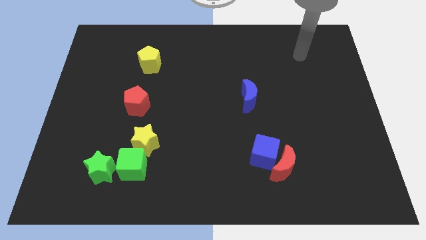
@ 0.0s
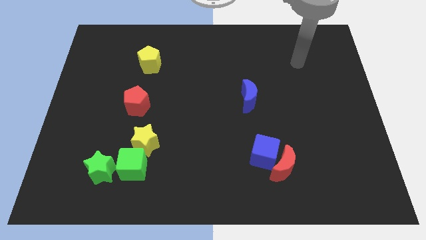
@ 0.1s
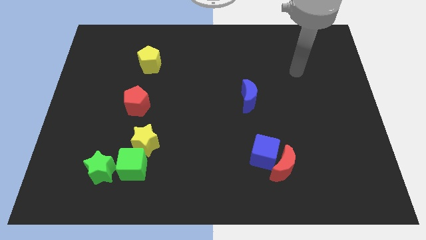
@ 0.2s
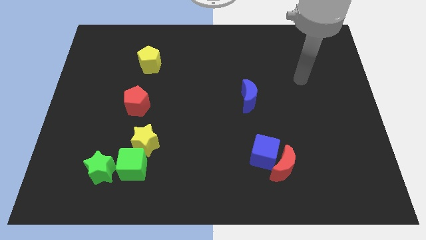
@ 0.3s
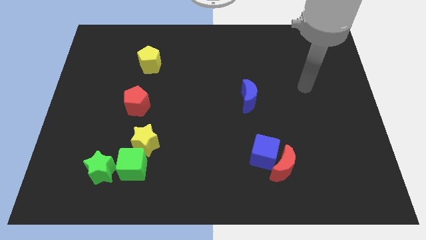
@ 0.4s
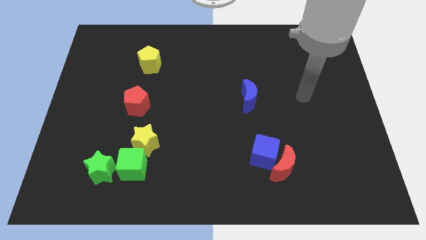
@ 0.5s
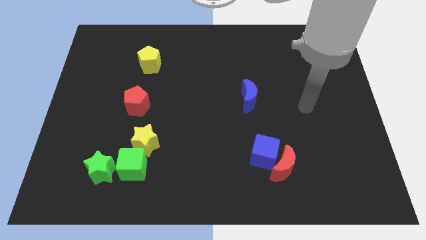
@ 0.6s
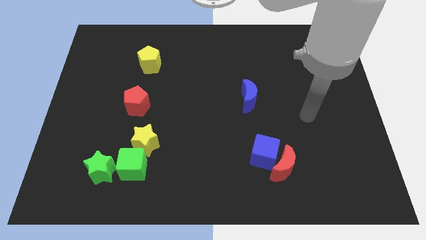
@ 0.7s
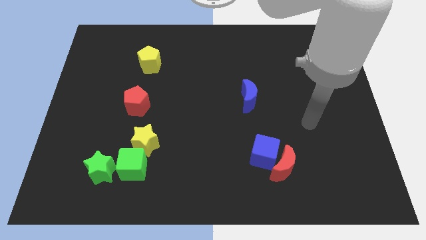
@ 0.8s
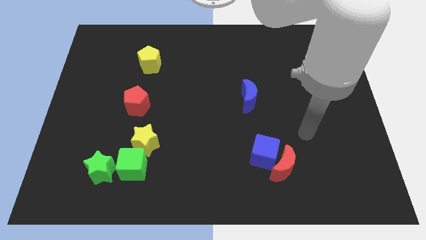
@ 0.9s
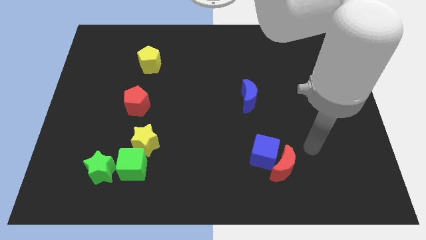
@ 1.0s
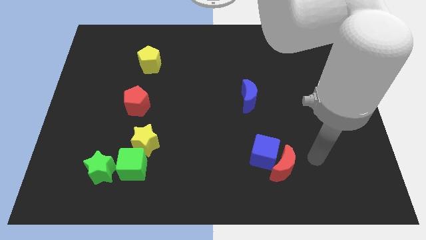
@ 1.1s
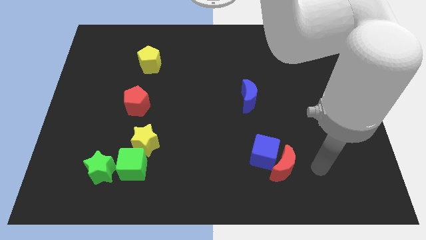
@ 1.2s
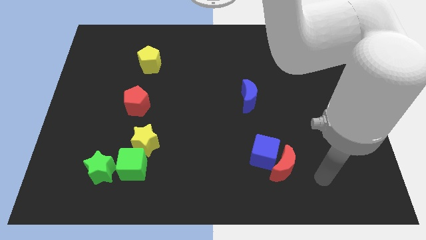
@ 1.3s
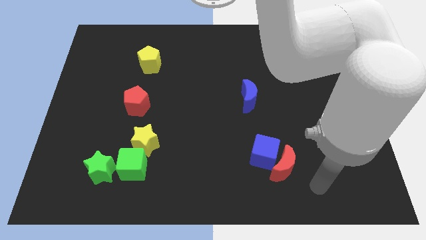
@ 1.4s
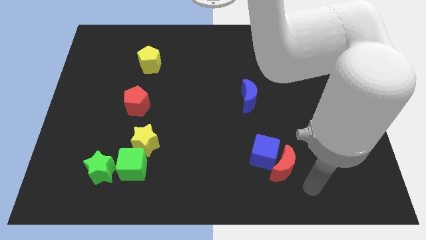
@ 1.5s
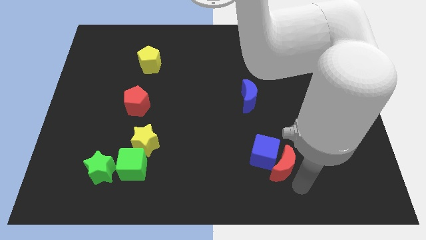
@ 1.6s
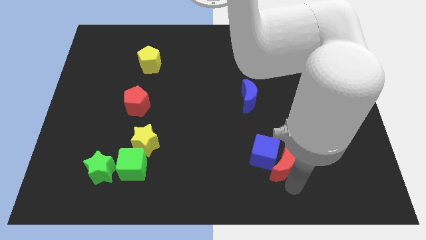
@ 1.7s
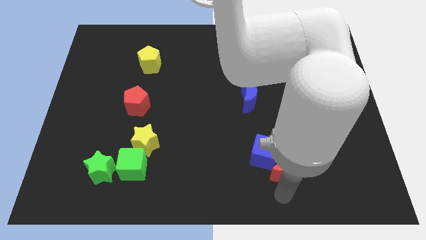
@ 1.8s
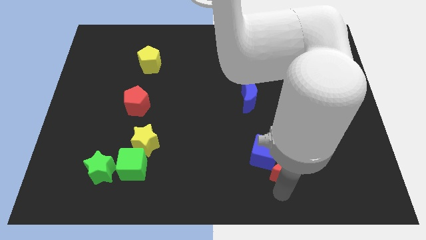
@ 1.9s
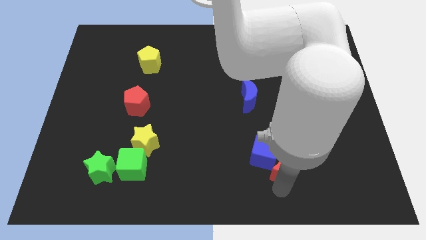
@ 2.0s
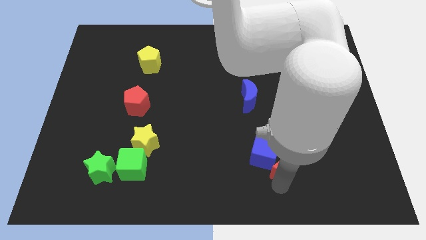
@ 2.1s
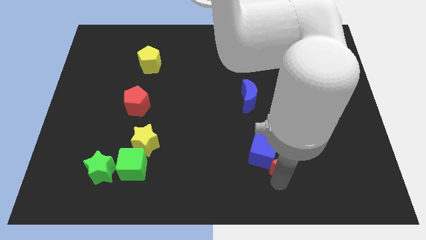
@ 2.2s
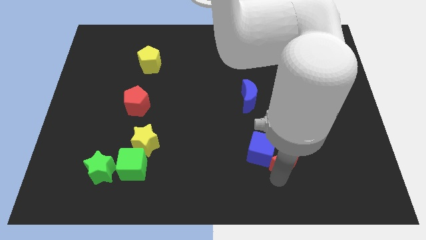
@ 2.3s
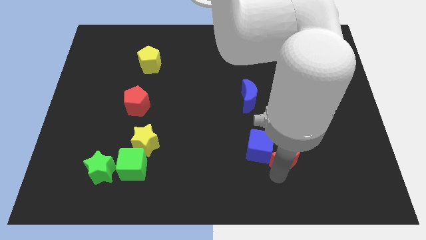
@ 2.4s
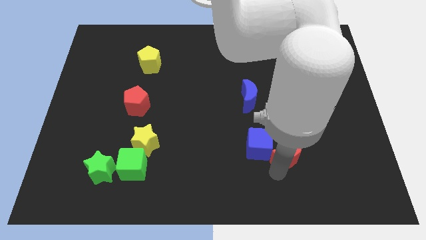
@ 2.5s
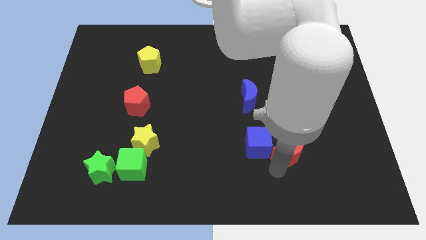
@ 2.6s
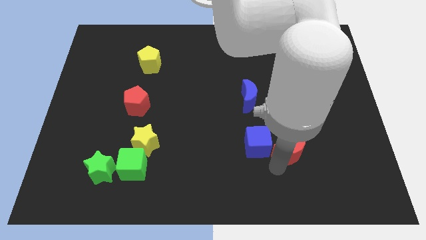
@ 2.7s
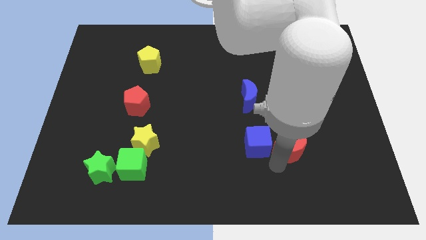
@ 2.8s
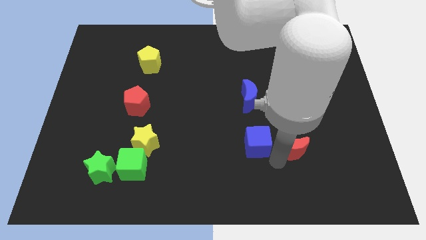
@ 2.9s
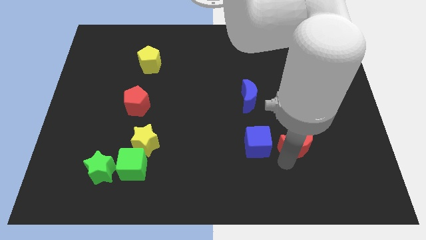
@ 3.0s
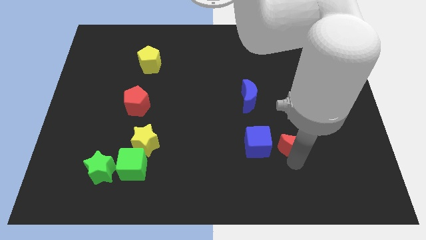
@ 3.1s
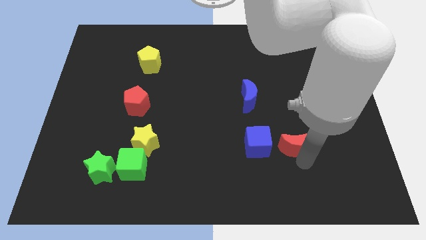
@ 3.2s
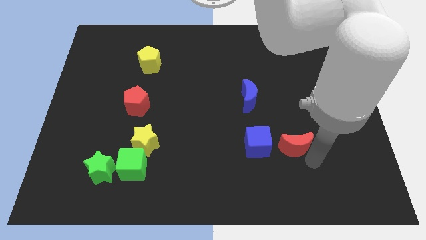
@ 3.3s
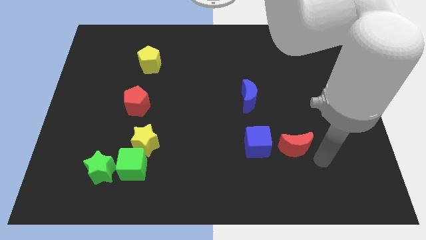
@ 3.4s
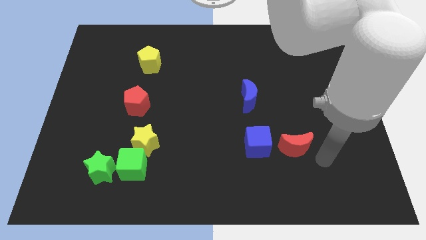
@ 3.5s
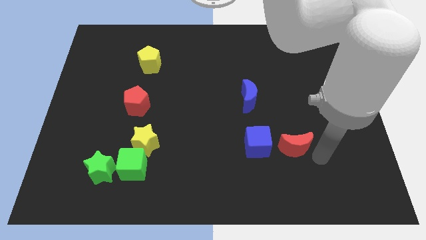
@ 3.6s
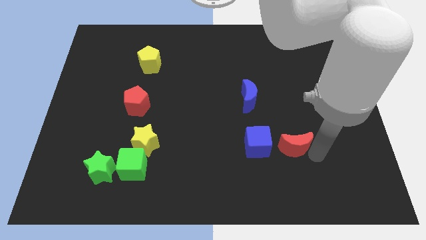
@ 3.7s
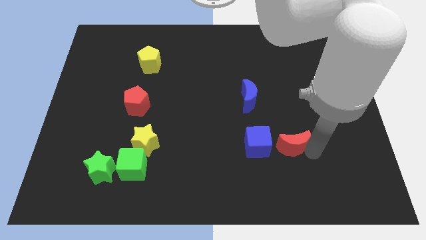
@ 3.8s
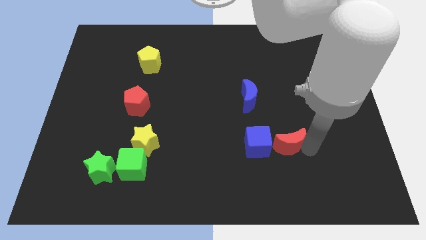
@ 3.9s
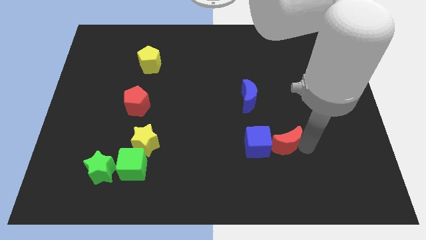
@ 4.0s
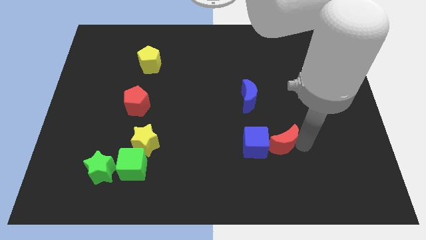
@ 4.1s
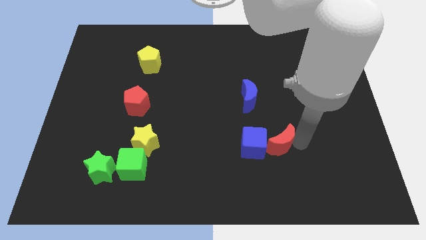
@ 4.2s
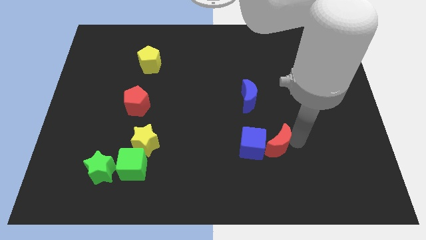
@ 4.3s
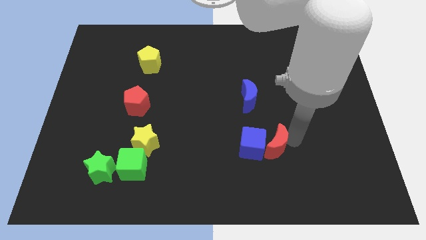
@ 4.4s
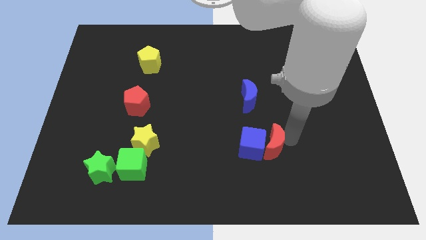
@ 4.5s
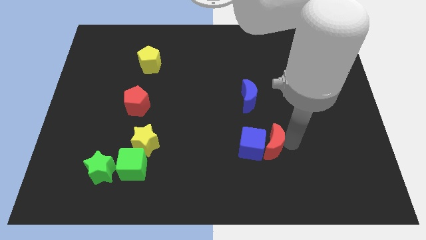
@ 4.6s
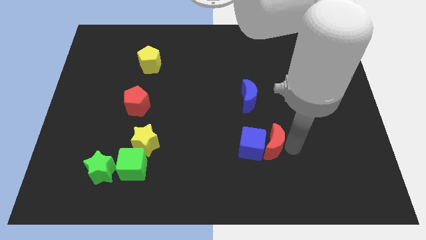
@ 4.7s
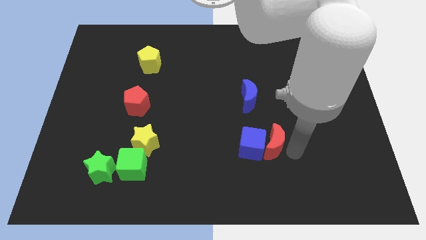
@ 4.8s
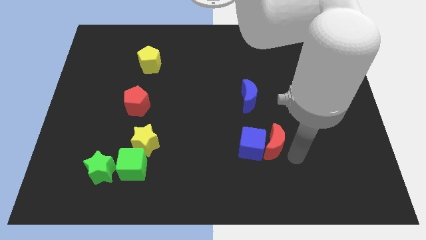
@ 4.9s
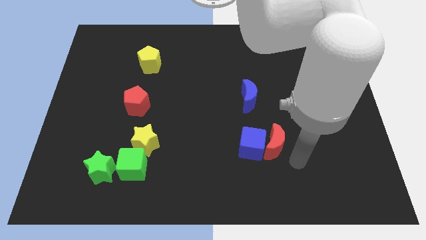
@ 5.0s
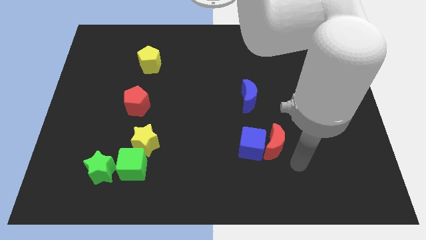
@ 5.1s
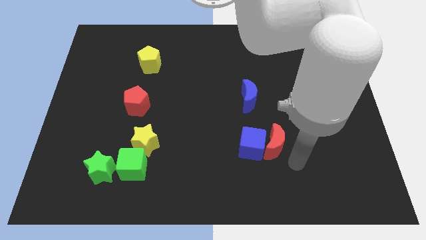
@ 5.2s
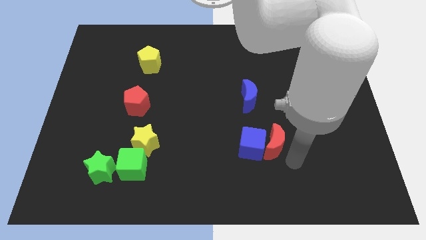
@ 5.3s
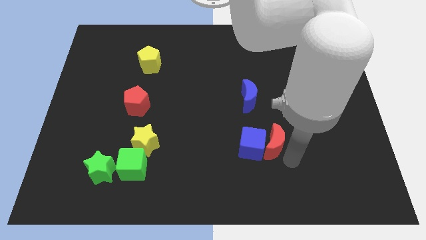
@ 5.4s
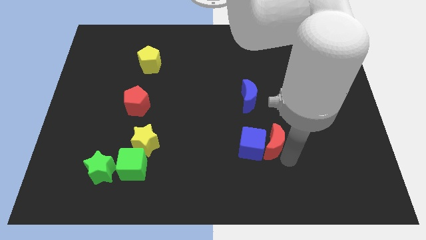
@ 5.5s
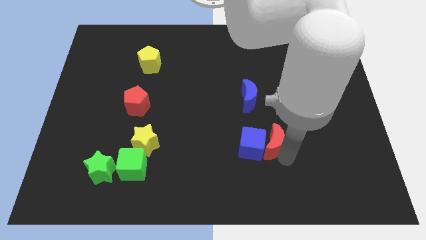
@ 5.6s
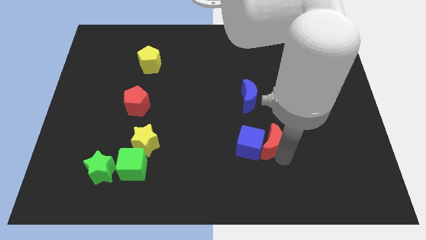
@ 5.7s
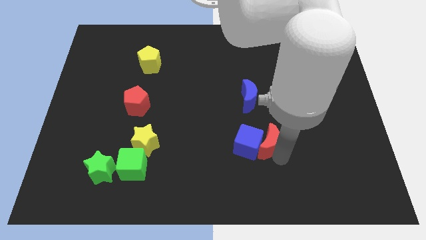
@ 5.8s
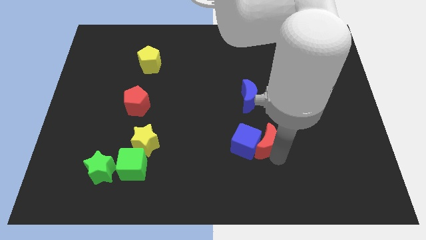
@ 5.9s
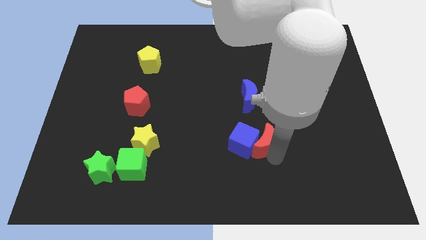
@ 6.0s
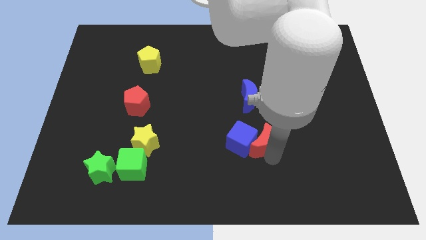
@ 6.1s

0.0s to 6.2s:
slide the red moon a bit up and to the left diagonally

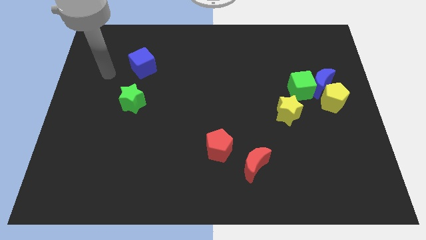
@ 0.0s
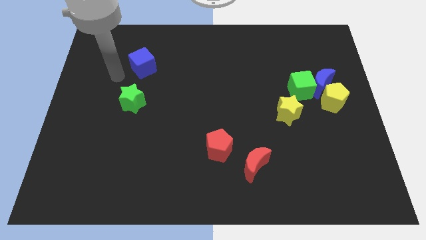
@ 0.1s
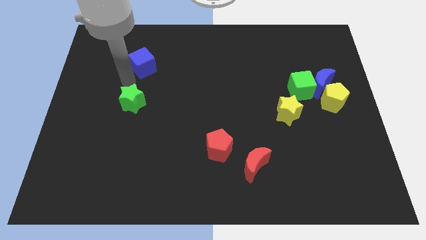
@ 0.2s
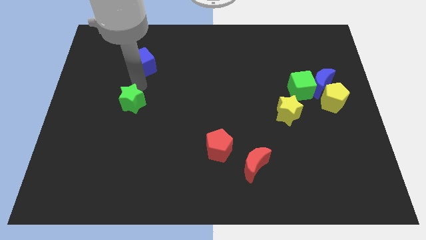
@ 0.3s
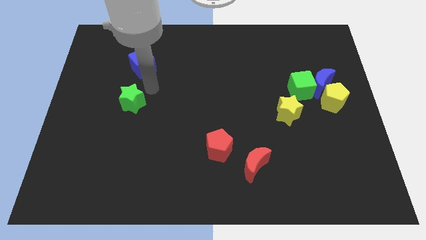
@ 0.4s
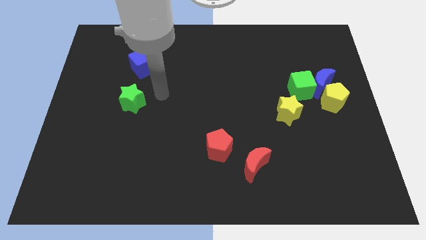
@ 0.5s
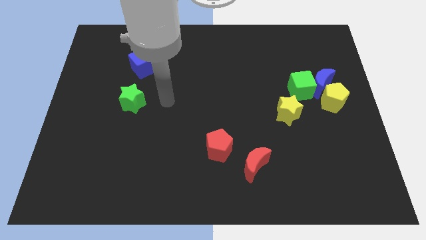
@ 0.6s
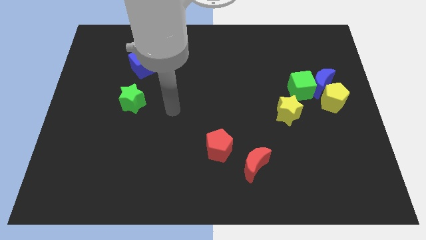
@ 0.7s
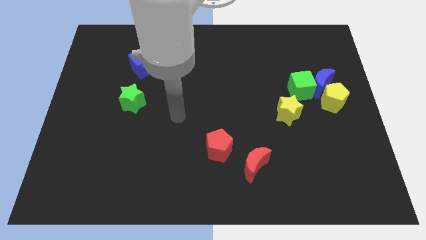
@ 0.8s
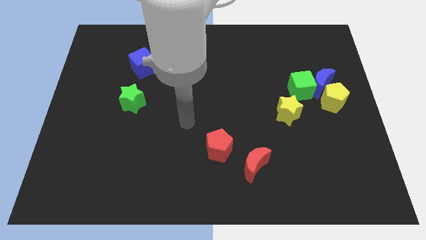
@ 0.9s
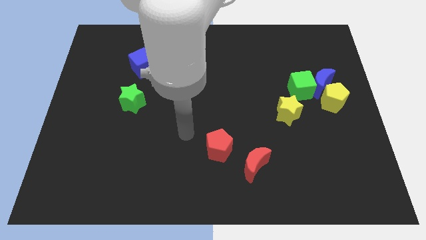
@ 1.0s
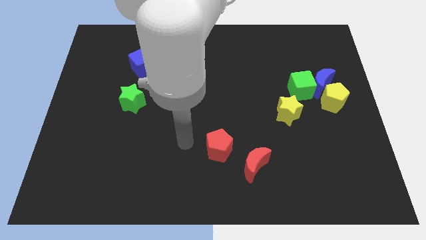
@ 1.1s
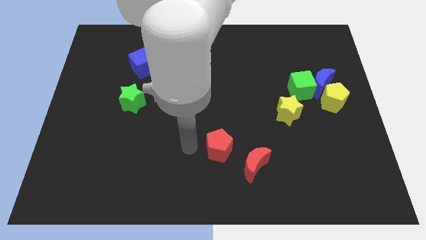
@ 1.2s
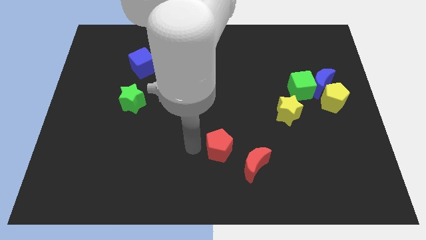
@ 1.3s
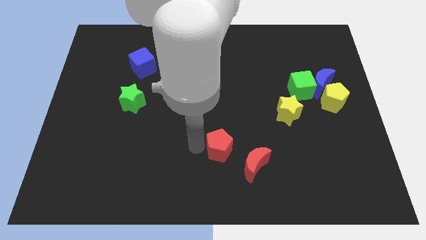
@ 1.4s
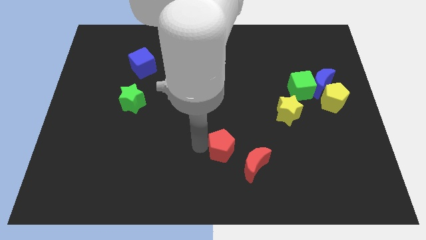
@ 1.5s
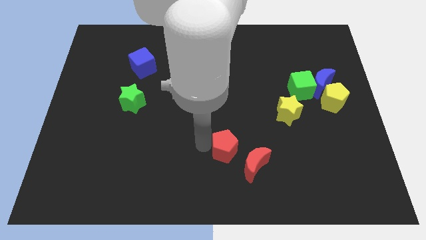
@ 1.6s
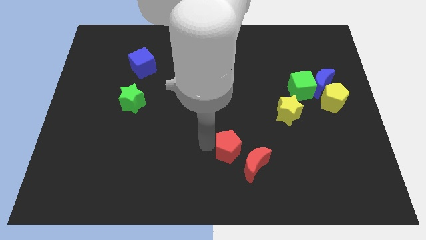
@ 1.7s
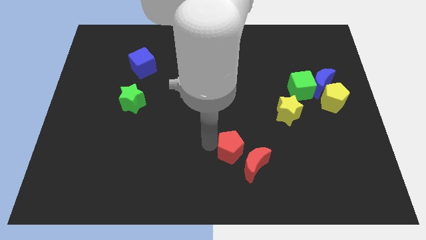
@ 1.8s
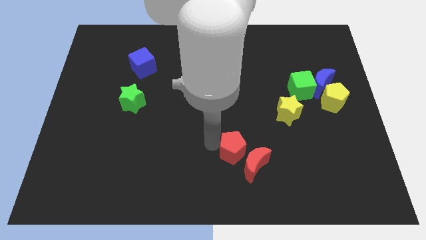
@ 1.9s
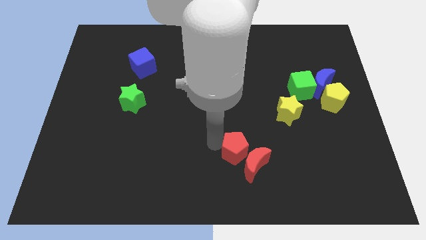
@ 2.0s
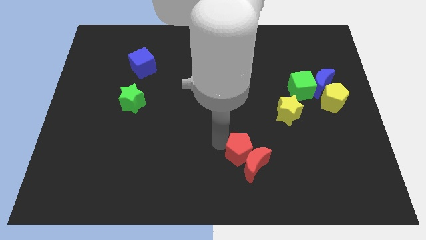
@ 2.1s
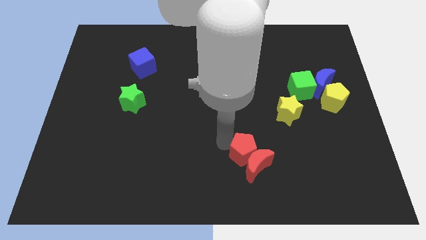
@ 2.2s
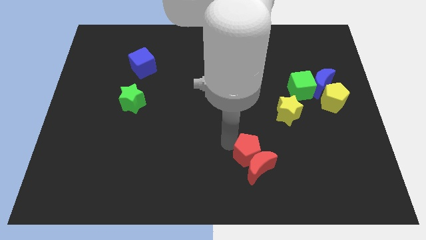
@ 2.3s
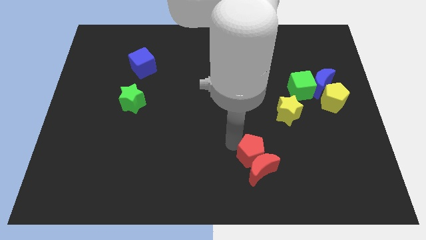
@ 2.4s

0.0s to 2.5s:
move the red pentagon slightly to the right
